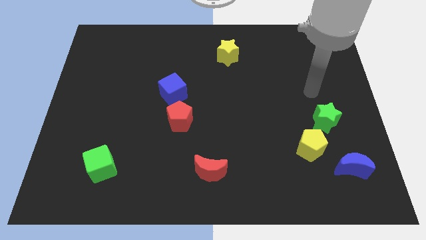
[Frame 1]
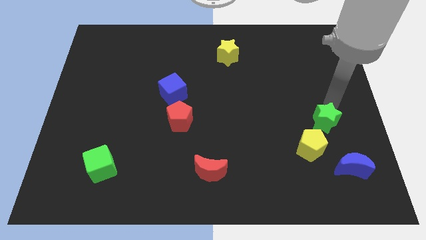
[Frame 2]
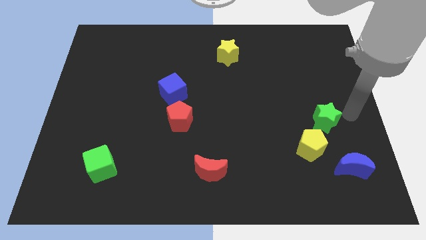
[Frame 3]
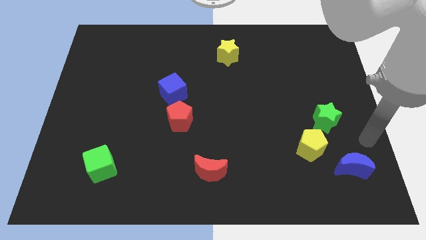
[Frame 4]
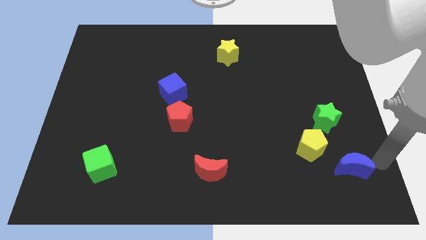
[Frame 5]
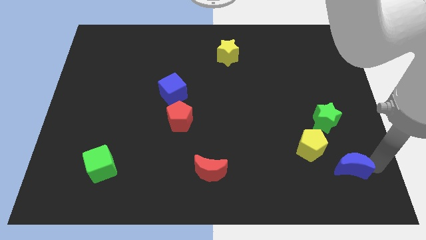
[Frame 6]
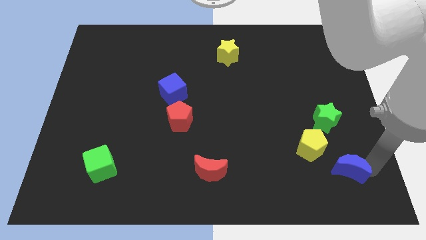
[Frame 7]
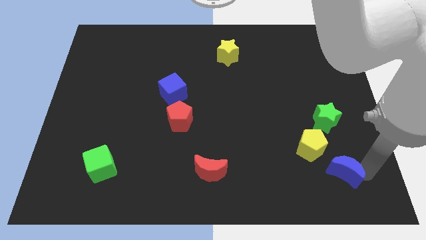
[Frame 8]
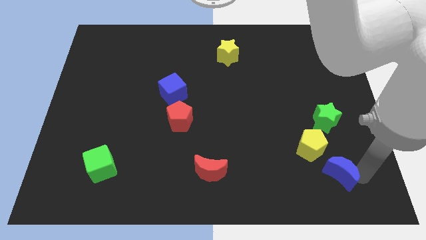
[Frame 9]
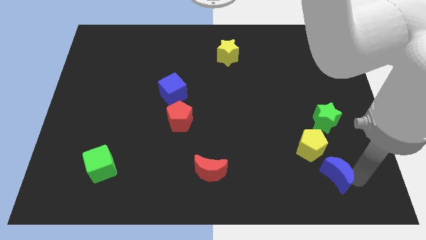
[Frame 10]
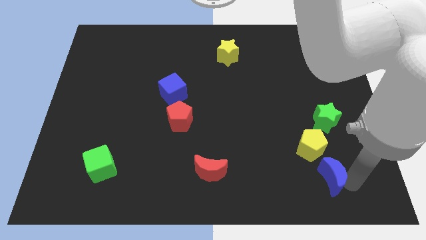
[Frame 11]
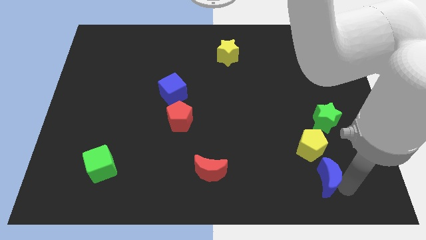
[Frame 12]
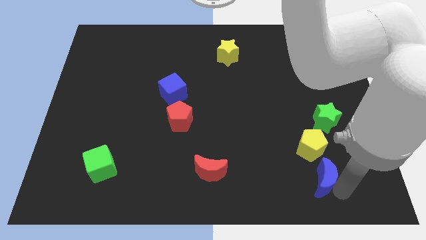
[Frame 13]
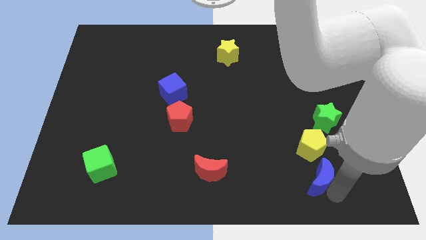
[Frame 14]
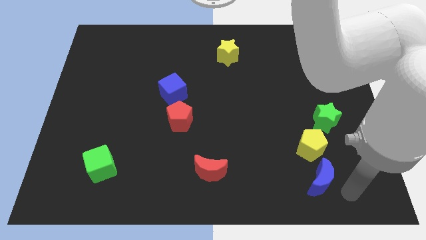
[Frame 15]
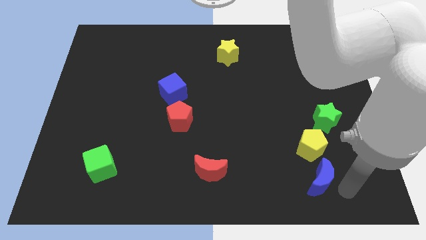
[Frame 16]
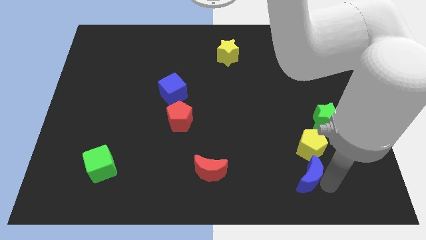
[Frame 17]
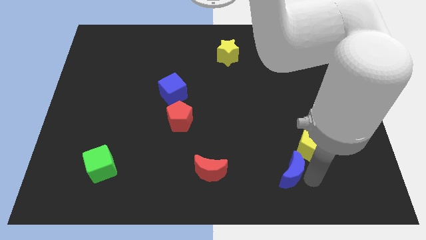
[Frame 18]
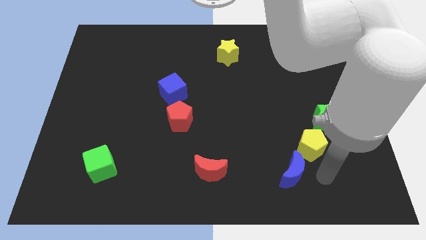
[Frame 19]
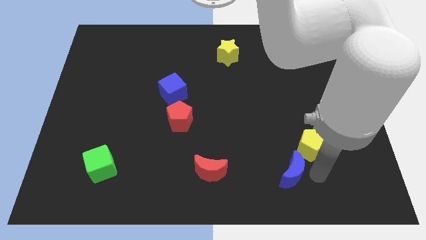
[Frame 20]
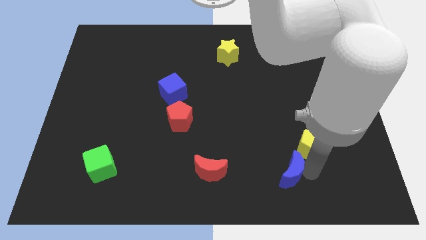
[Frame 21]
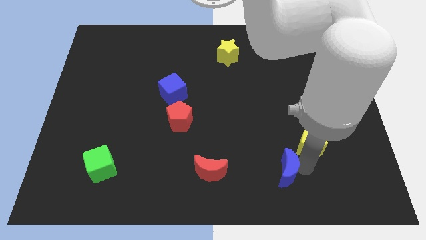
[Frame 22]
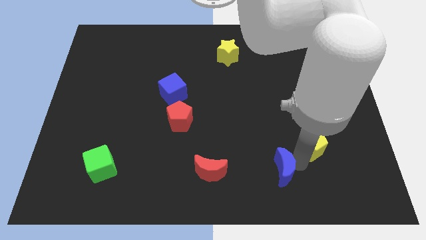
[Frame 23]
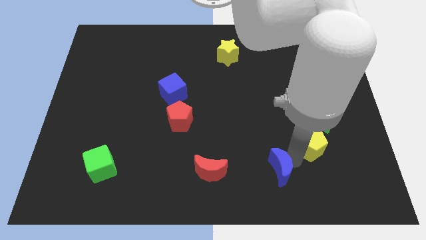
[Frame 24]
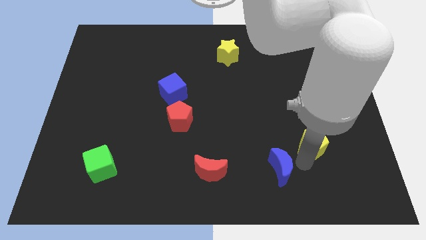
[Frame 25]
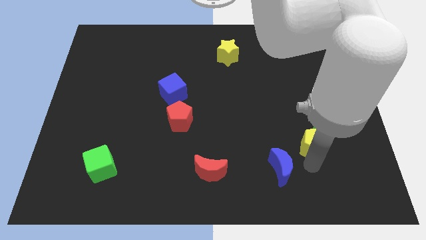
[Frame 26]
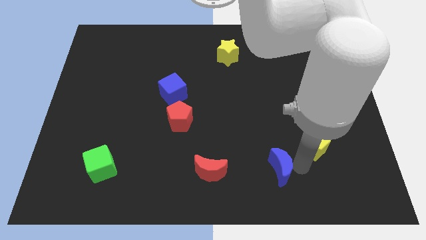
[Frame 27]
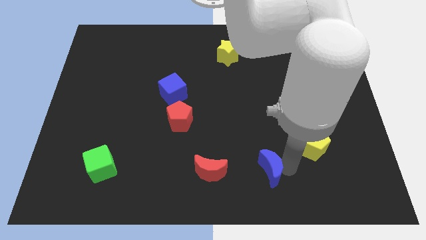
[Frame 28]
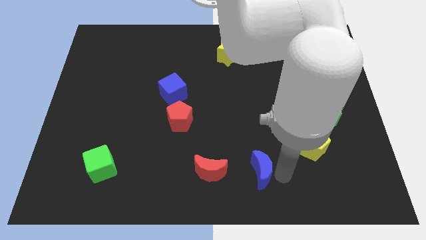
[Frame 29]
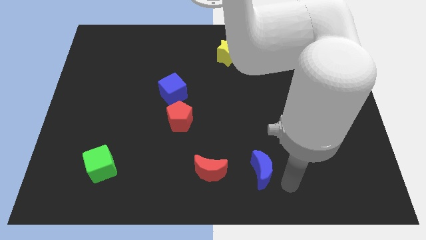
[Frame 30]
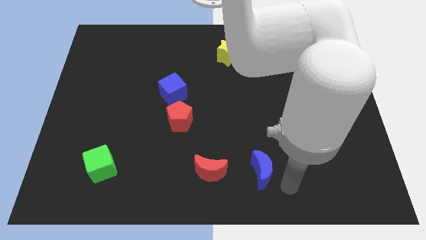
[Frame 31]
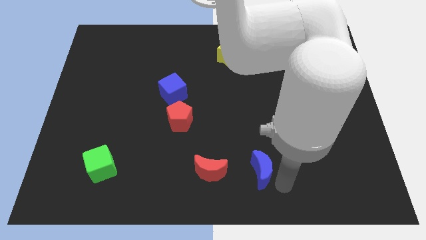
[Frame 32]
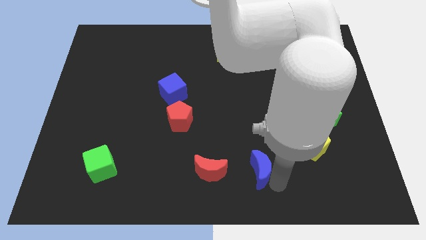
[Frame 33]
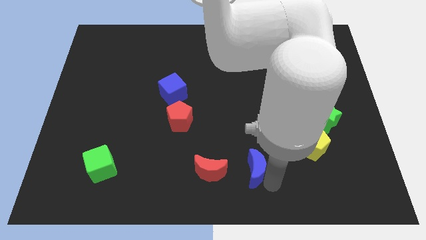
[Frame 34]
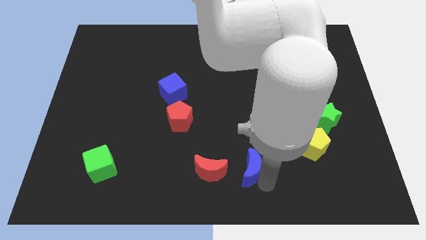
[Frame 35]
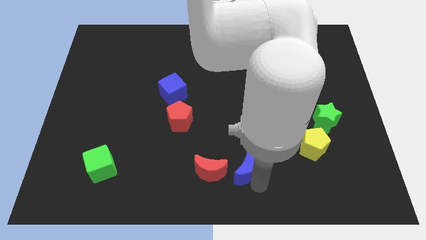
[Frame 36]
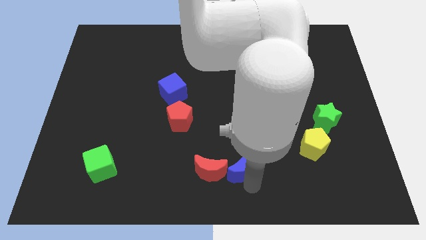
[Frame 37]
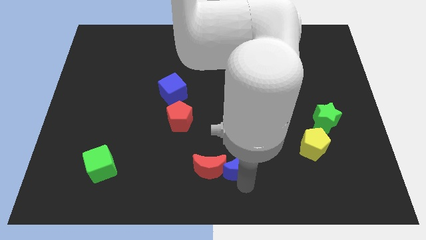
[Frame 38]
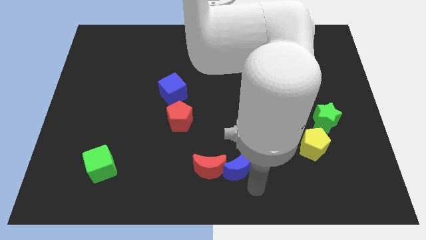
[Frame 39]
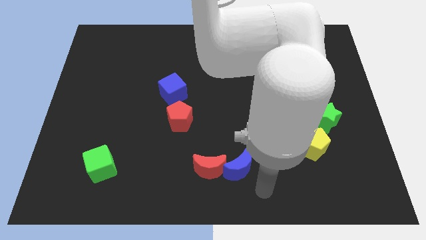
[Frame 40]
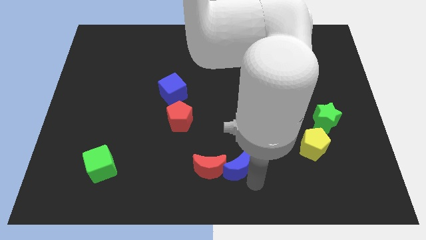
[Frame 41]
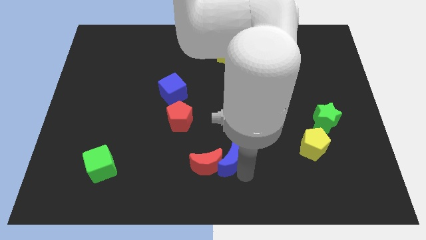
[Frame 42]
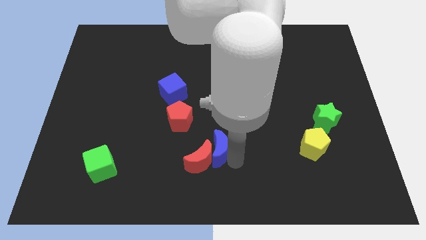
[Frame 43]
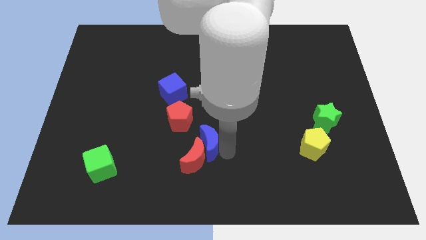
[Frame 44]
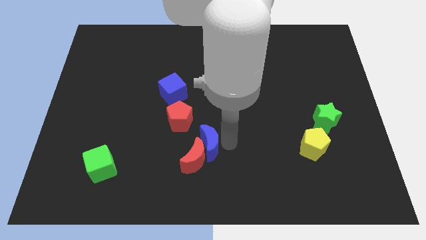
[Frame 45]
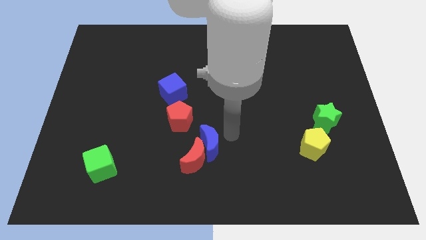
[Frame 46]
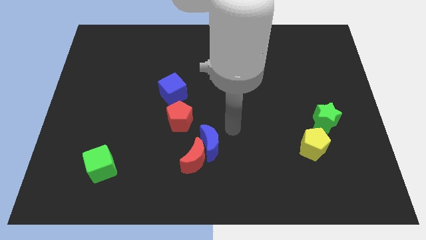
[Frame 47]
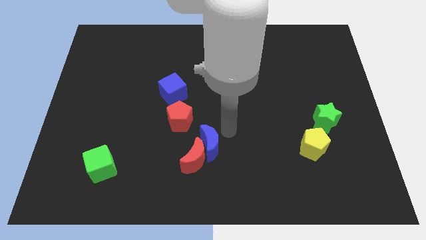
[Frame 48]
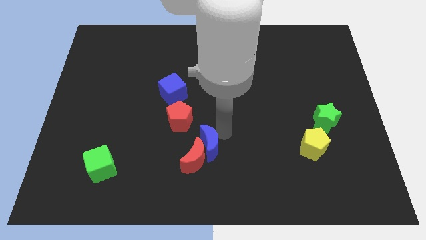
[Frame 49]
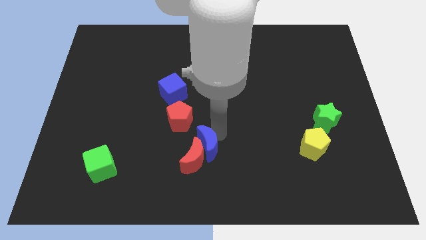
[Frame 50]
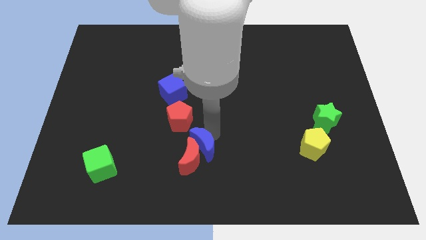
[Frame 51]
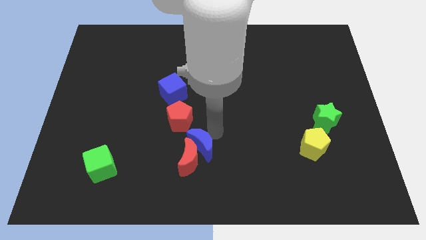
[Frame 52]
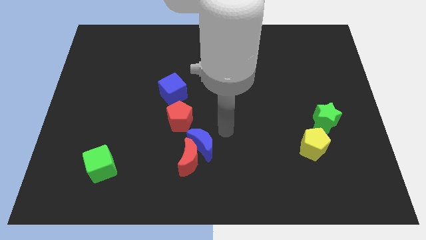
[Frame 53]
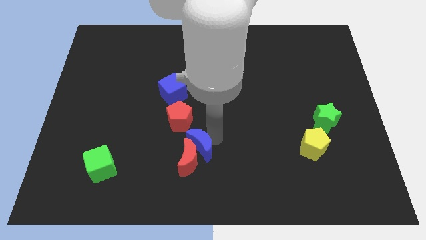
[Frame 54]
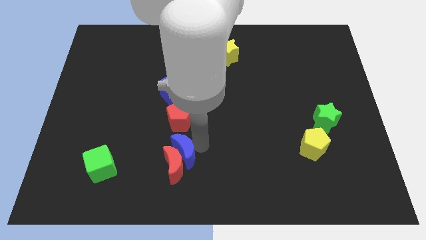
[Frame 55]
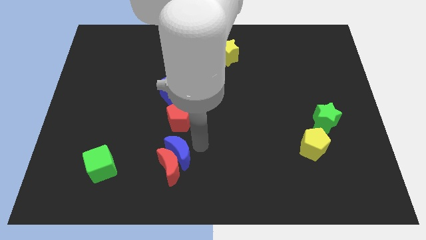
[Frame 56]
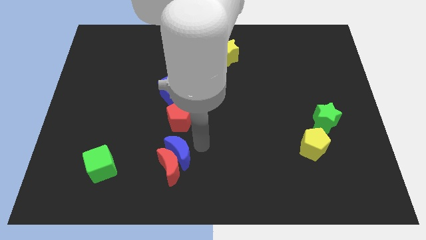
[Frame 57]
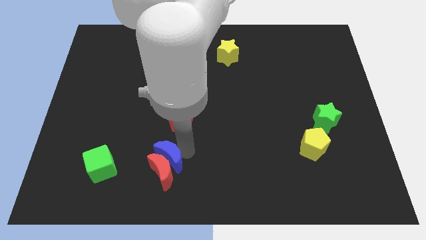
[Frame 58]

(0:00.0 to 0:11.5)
push the blue moon right of the green cube
